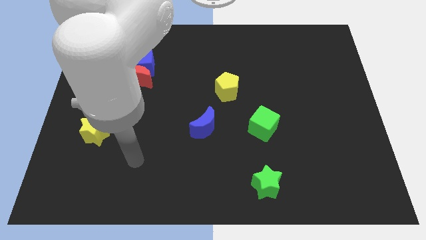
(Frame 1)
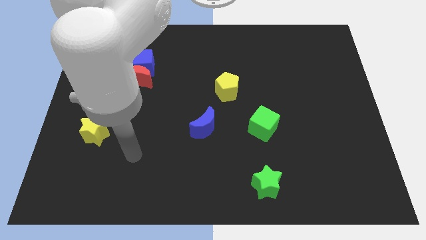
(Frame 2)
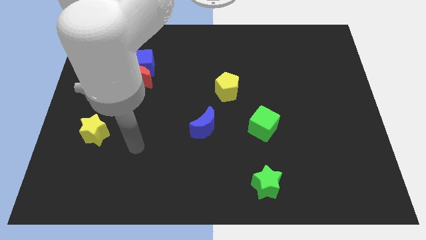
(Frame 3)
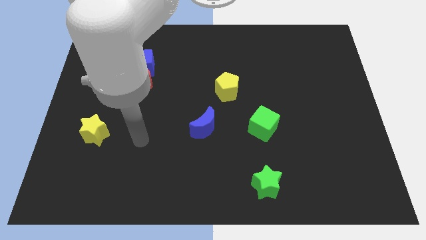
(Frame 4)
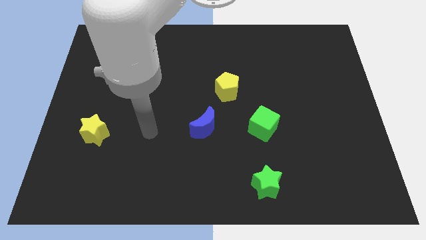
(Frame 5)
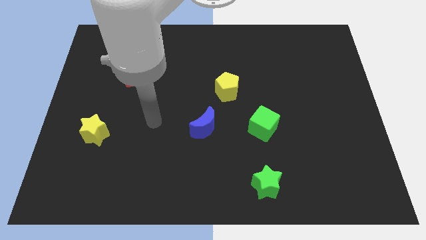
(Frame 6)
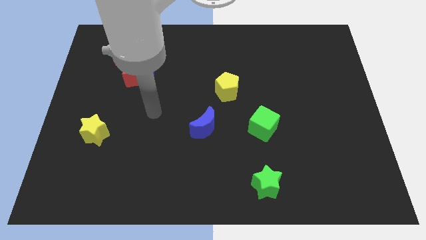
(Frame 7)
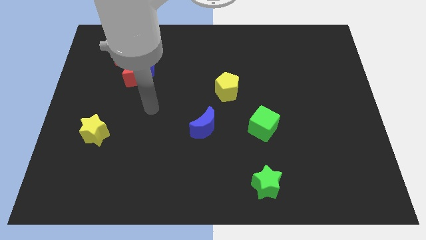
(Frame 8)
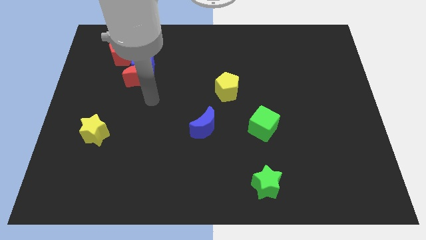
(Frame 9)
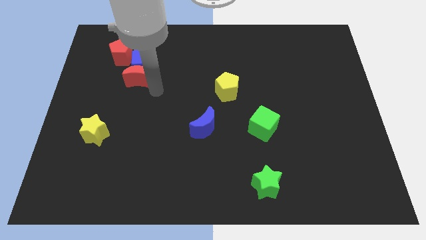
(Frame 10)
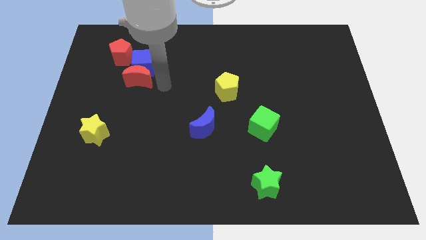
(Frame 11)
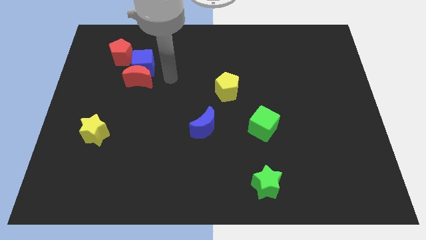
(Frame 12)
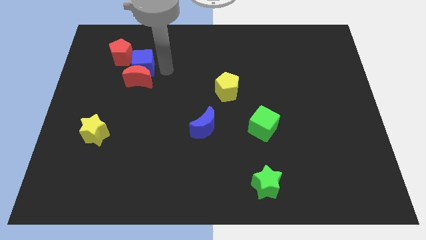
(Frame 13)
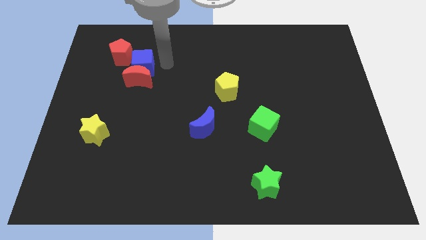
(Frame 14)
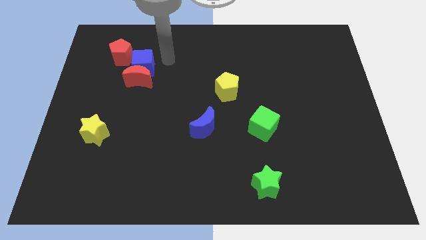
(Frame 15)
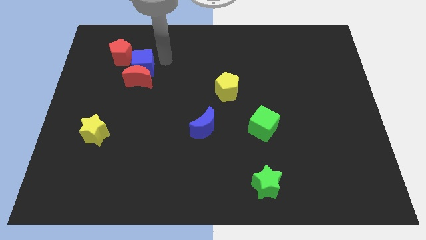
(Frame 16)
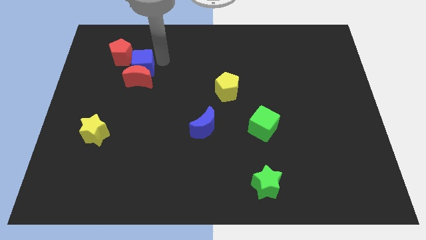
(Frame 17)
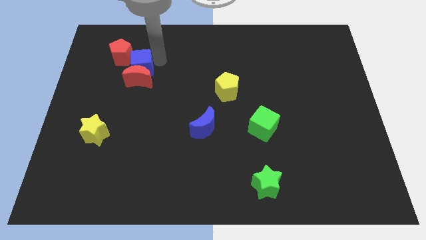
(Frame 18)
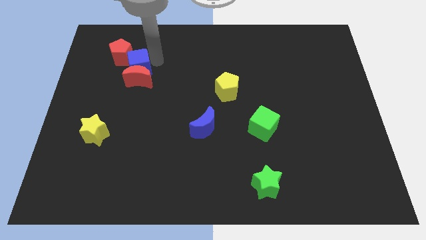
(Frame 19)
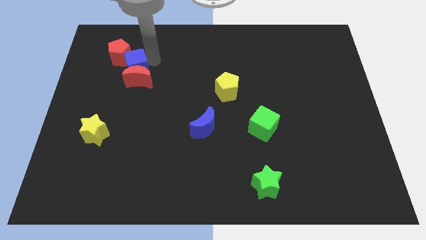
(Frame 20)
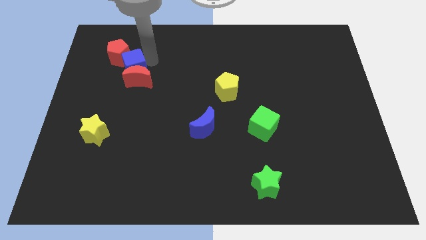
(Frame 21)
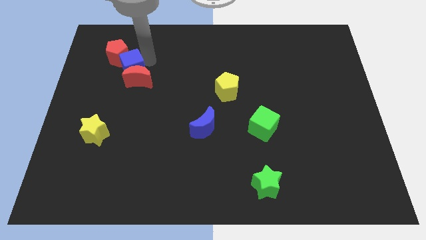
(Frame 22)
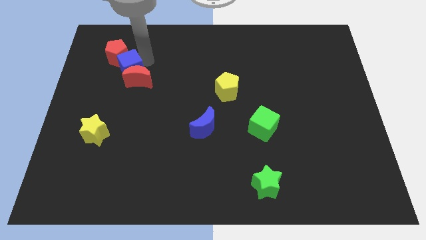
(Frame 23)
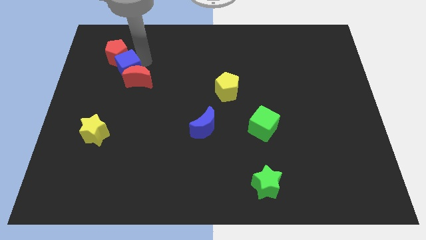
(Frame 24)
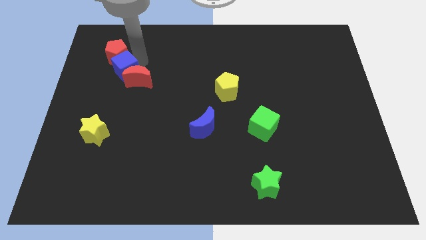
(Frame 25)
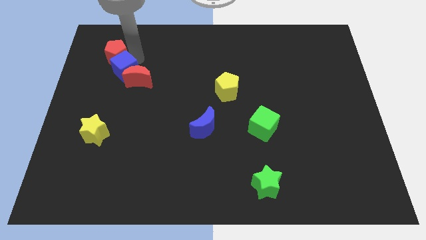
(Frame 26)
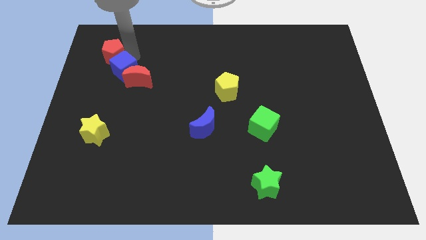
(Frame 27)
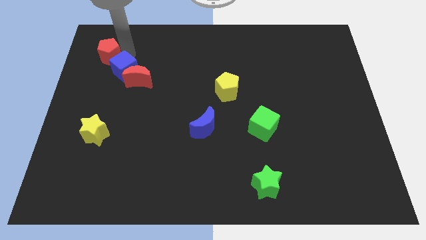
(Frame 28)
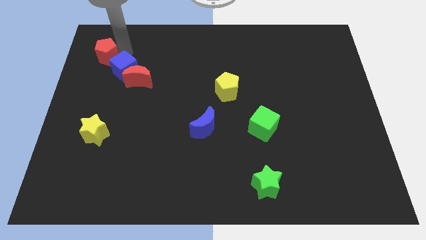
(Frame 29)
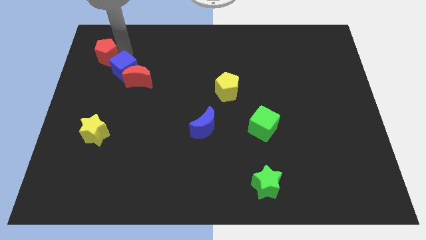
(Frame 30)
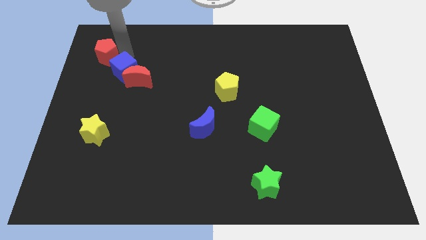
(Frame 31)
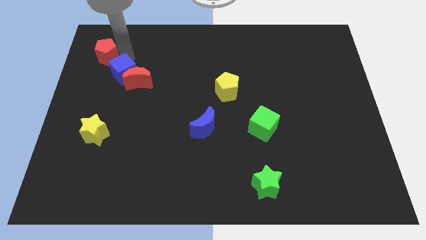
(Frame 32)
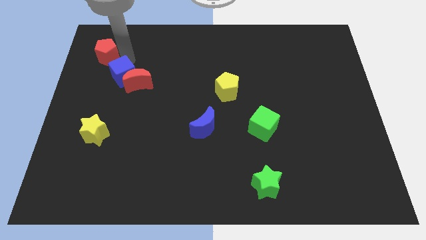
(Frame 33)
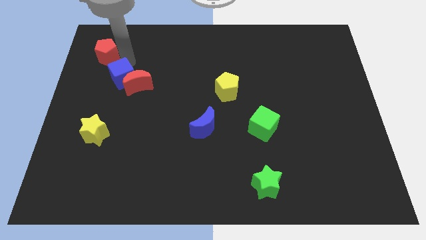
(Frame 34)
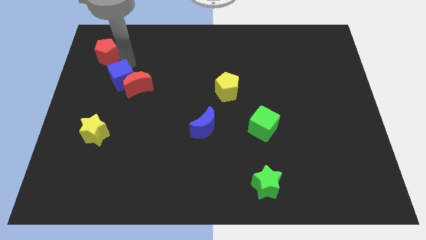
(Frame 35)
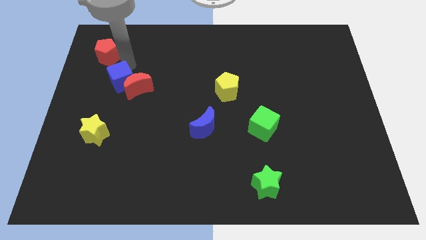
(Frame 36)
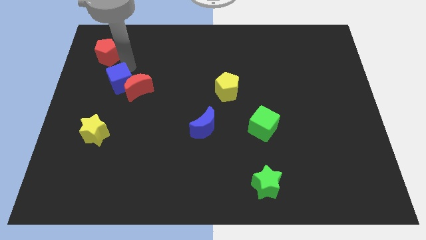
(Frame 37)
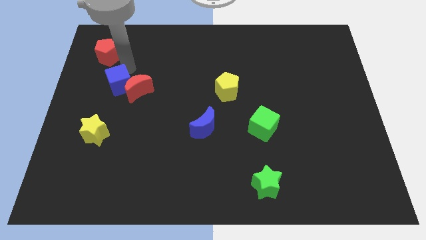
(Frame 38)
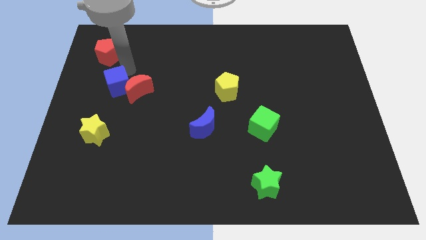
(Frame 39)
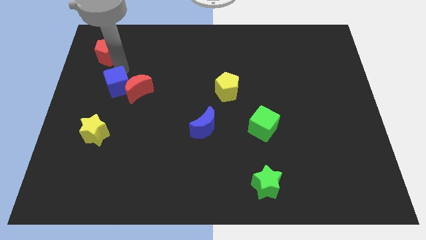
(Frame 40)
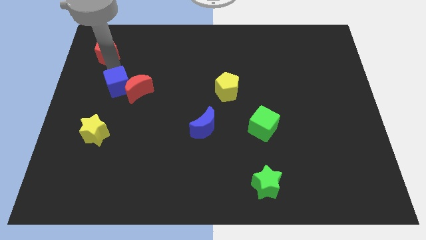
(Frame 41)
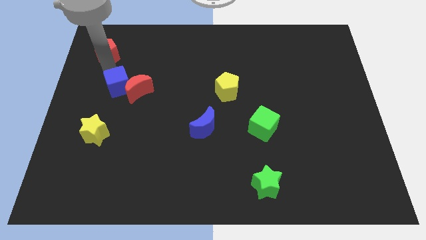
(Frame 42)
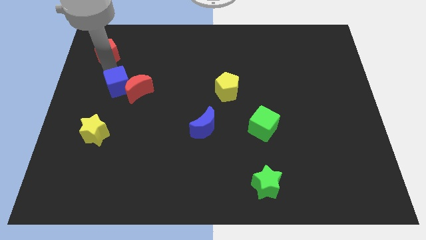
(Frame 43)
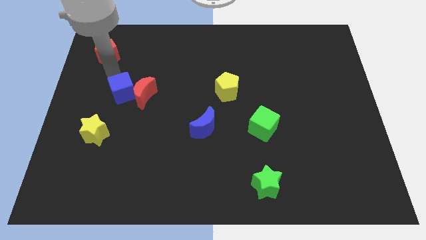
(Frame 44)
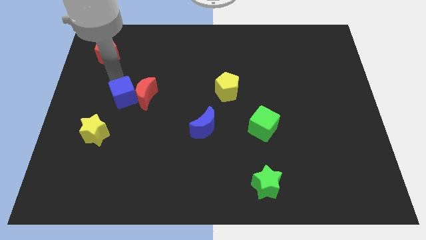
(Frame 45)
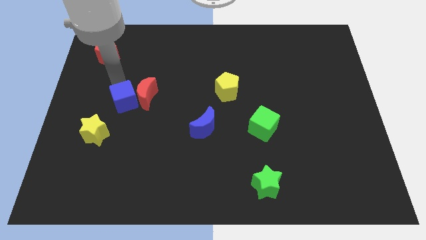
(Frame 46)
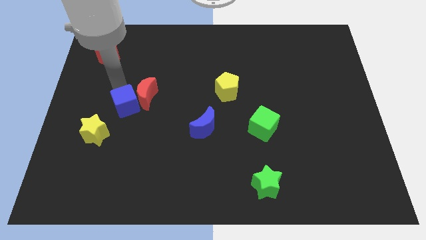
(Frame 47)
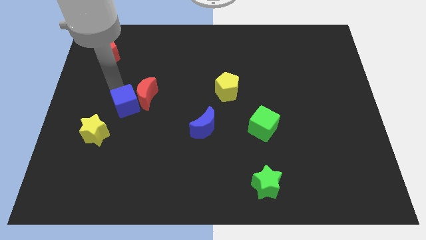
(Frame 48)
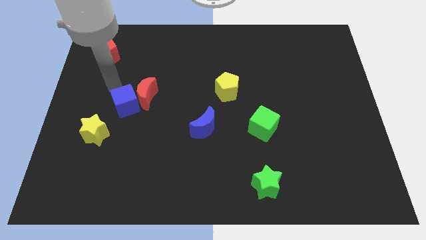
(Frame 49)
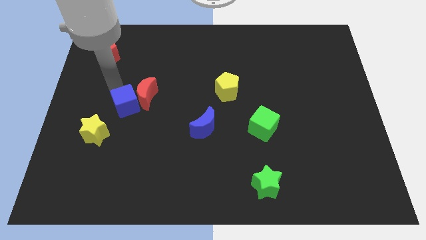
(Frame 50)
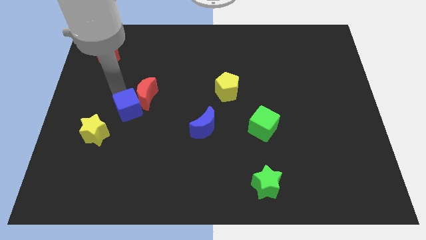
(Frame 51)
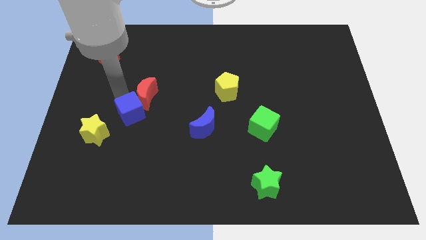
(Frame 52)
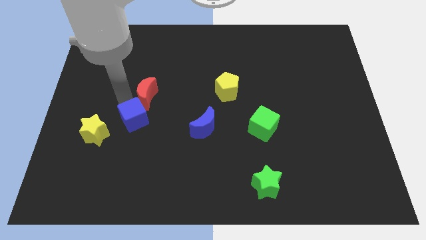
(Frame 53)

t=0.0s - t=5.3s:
slide the blue cube just right of the yellow star

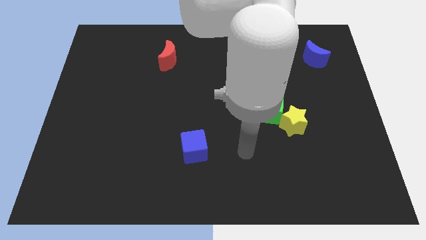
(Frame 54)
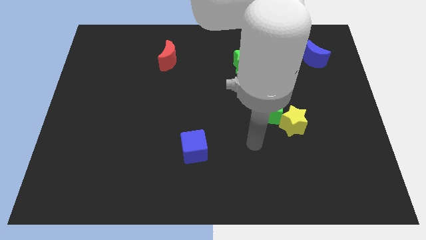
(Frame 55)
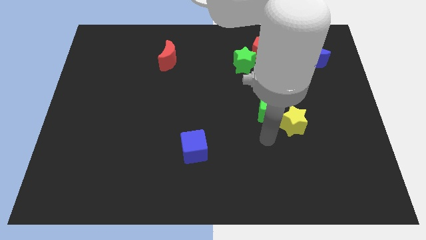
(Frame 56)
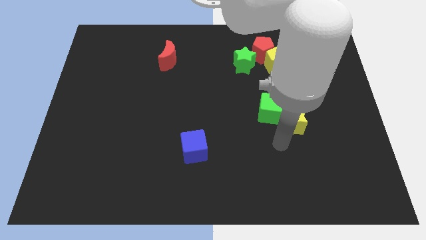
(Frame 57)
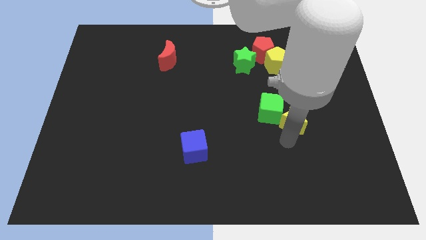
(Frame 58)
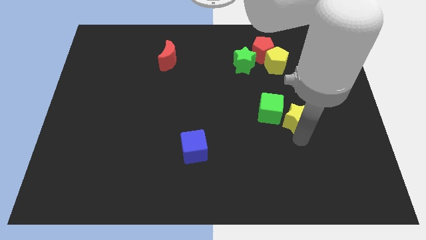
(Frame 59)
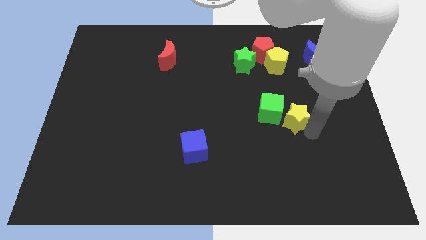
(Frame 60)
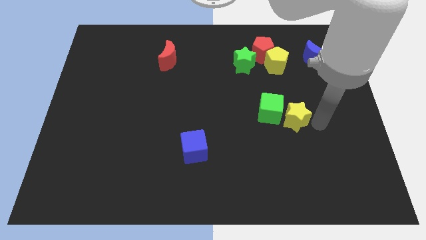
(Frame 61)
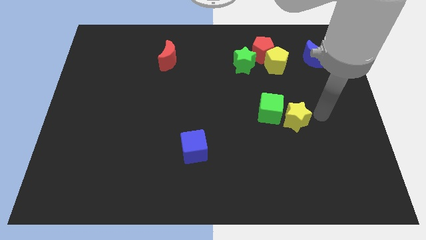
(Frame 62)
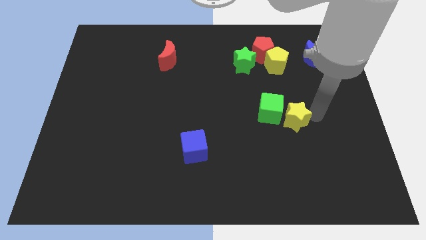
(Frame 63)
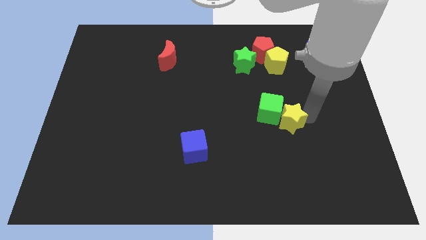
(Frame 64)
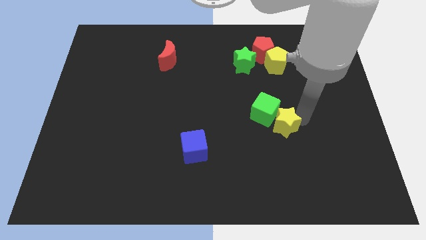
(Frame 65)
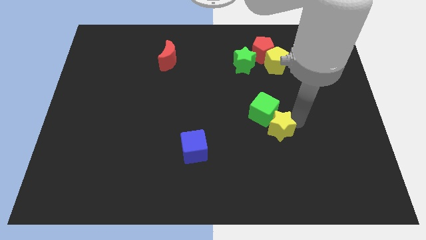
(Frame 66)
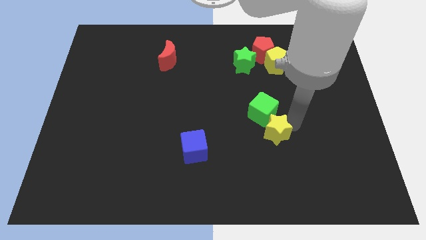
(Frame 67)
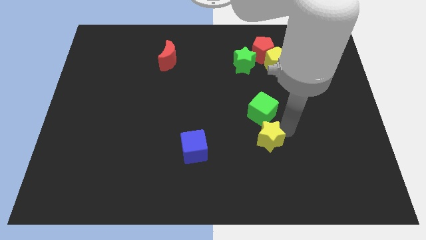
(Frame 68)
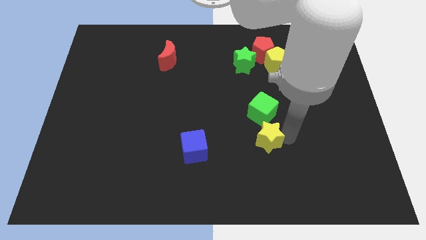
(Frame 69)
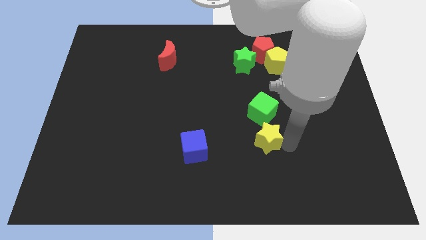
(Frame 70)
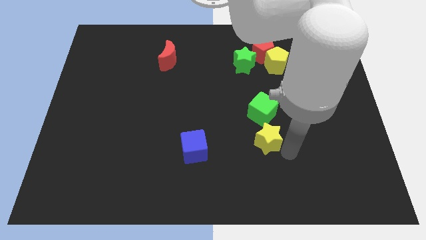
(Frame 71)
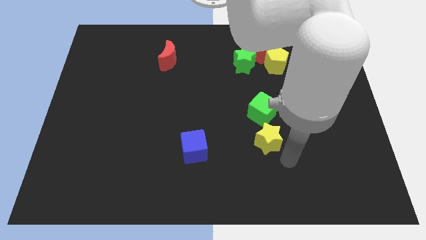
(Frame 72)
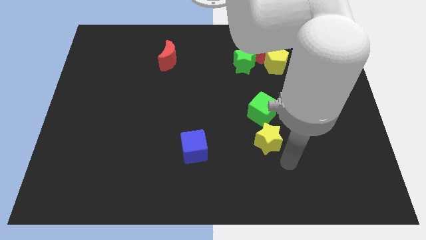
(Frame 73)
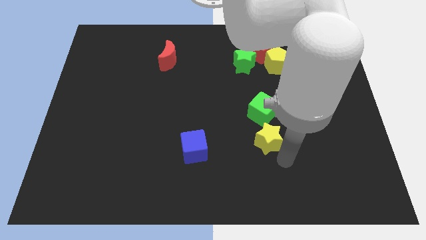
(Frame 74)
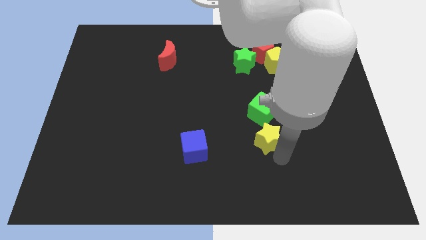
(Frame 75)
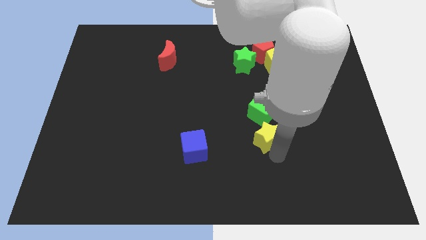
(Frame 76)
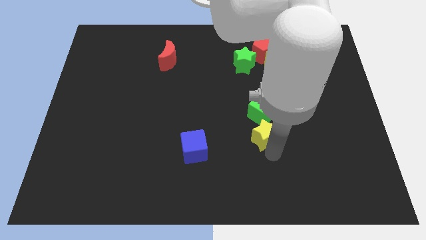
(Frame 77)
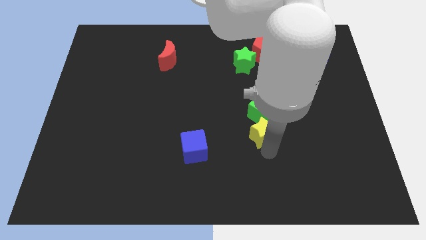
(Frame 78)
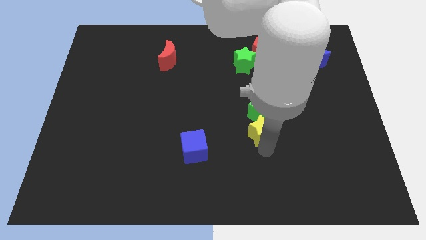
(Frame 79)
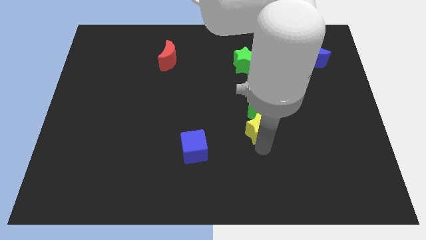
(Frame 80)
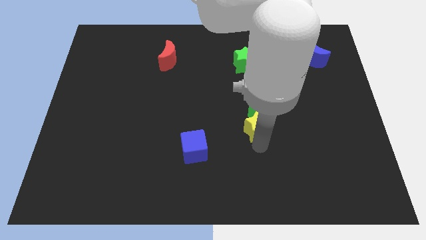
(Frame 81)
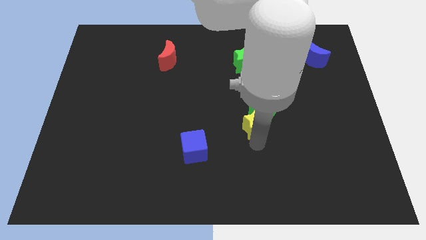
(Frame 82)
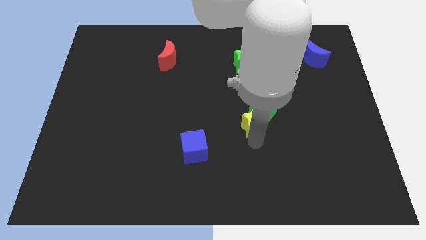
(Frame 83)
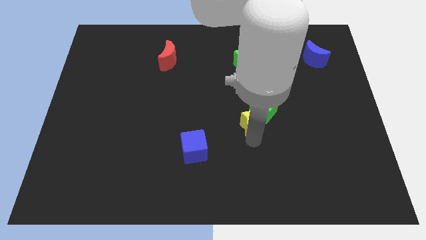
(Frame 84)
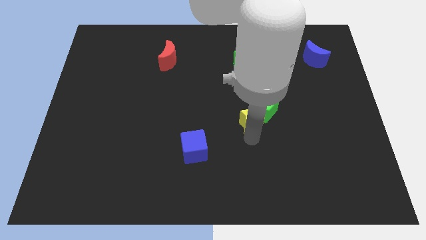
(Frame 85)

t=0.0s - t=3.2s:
put the yellow star left of the green cube
